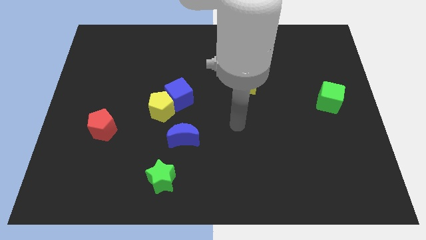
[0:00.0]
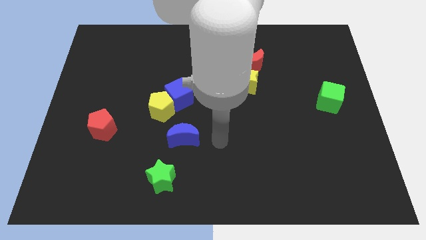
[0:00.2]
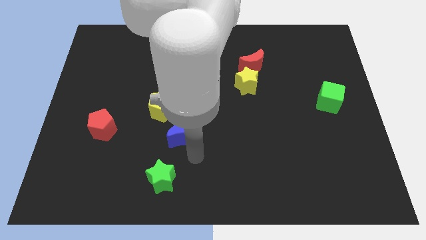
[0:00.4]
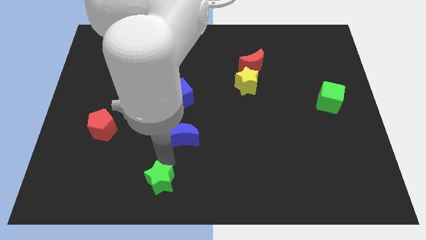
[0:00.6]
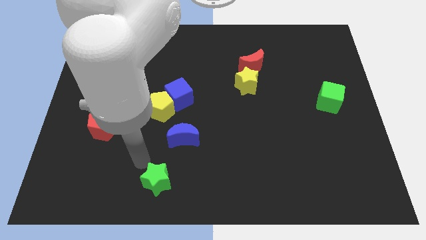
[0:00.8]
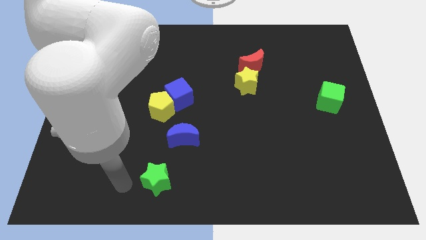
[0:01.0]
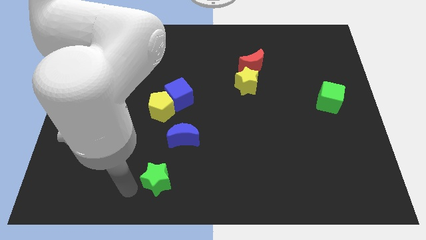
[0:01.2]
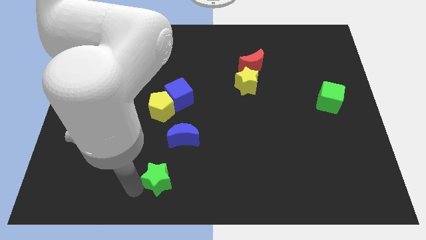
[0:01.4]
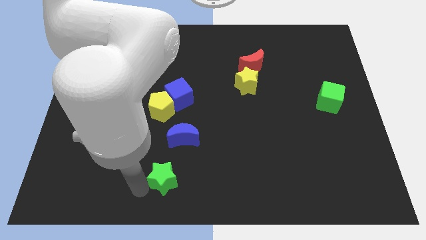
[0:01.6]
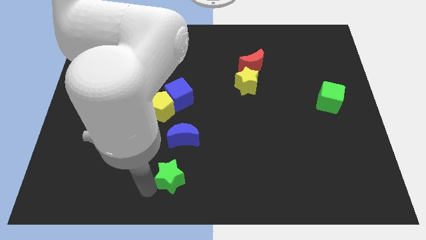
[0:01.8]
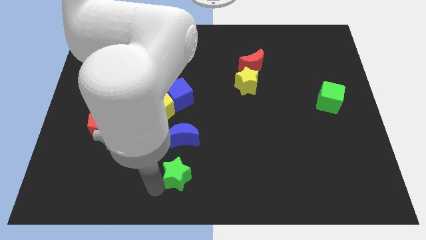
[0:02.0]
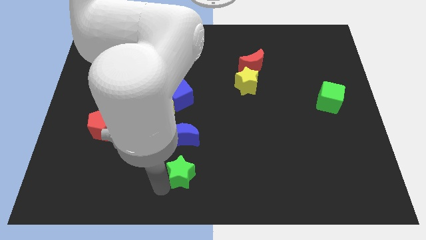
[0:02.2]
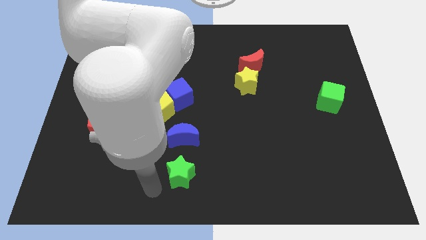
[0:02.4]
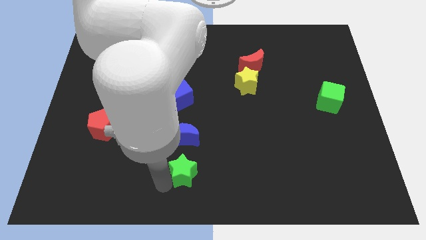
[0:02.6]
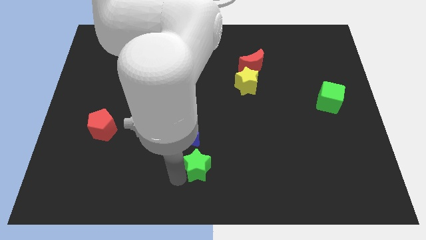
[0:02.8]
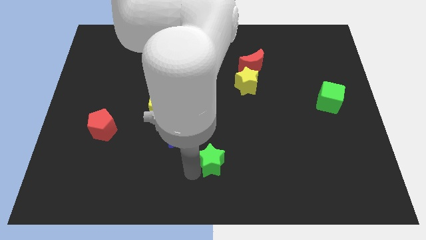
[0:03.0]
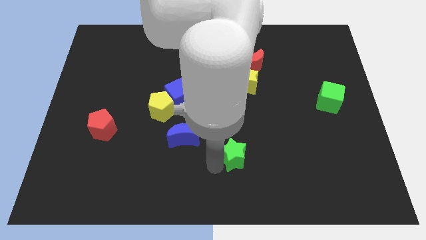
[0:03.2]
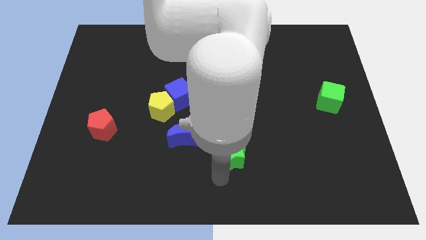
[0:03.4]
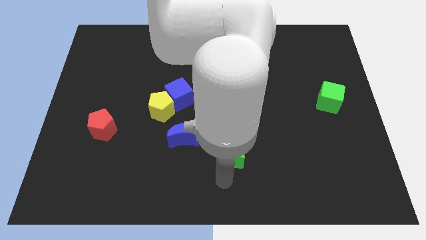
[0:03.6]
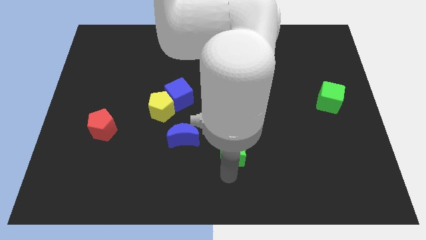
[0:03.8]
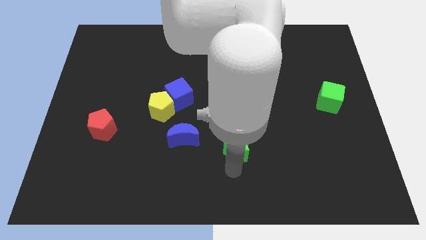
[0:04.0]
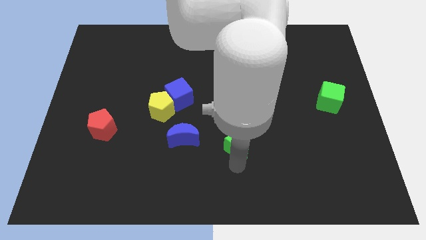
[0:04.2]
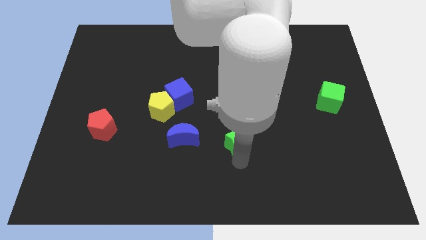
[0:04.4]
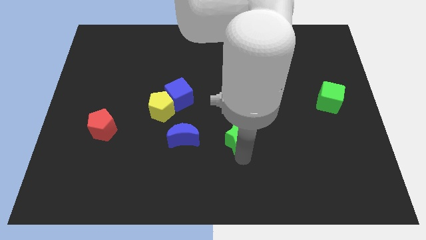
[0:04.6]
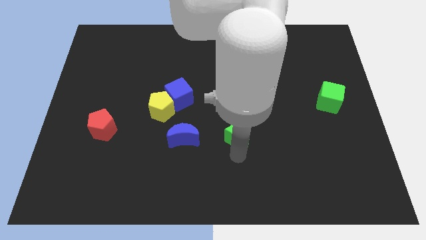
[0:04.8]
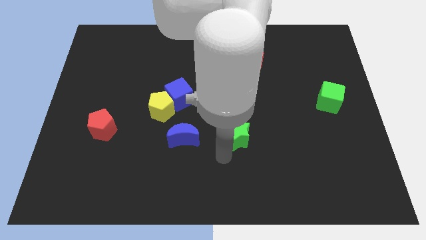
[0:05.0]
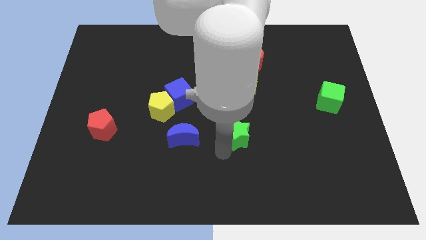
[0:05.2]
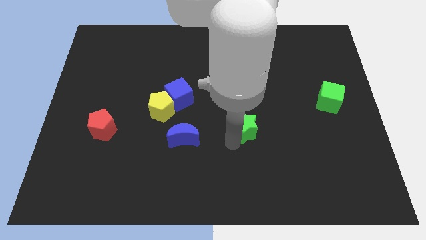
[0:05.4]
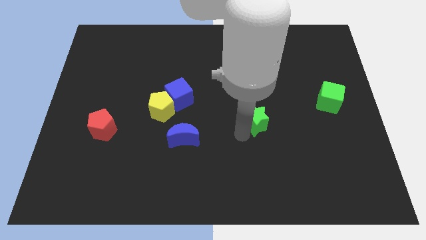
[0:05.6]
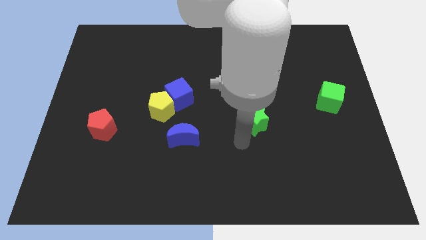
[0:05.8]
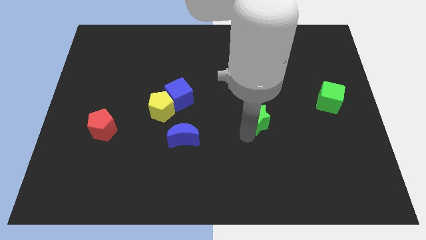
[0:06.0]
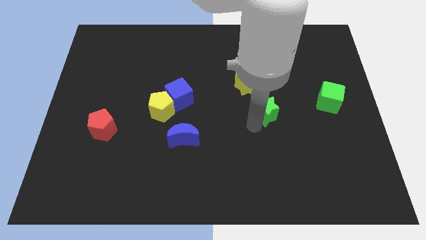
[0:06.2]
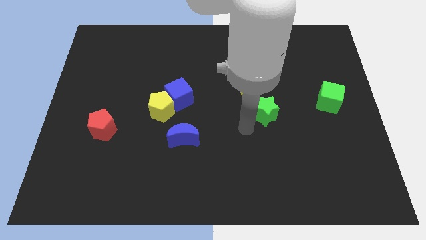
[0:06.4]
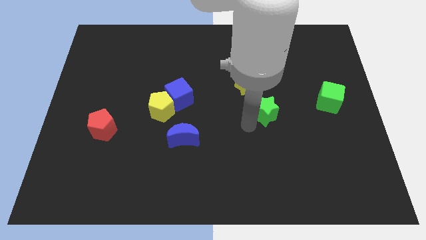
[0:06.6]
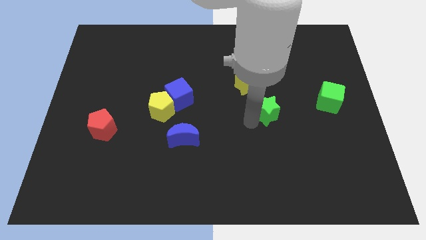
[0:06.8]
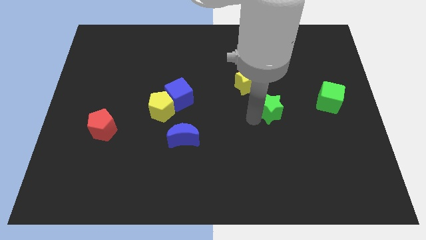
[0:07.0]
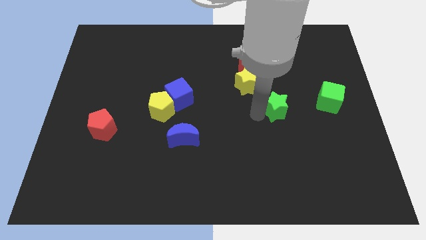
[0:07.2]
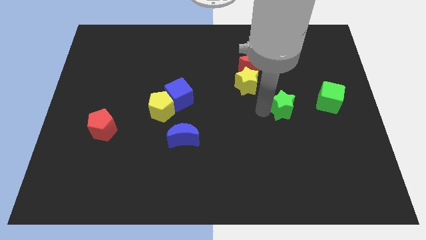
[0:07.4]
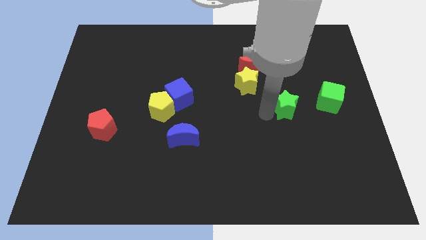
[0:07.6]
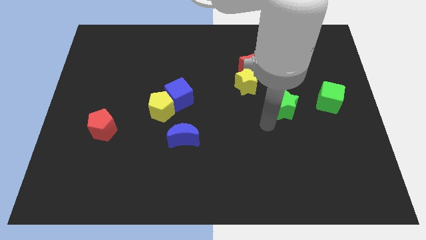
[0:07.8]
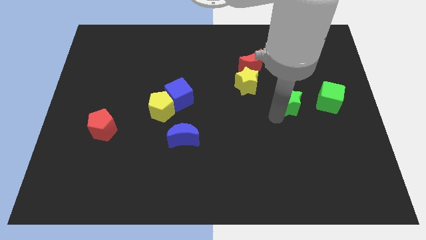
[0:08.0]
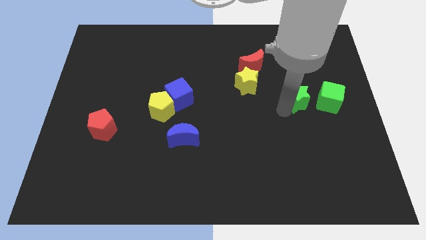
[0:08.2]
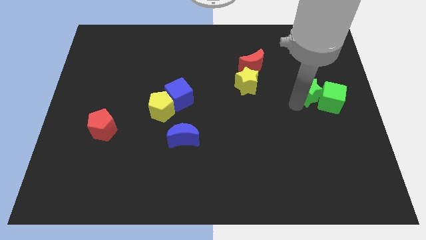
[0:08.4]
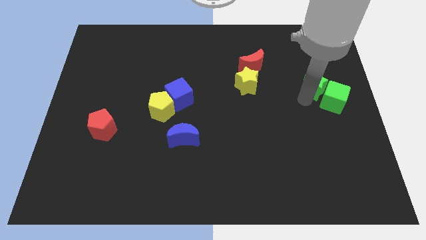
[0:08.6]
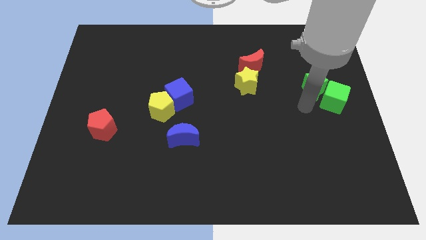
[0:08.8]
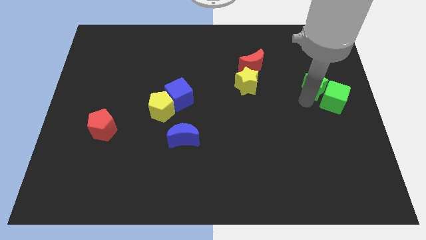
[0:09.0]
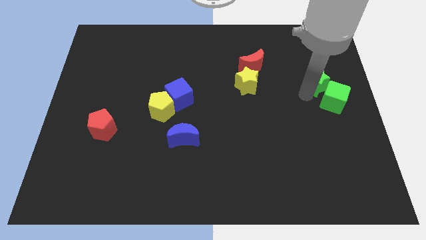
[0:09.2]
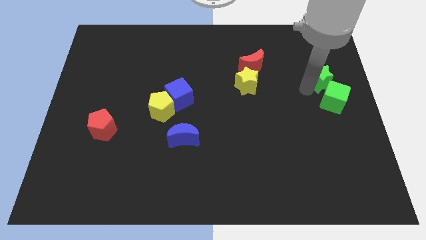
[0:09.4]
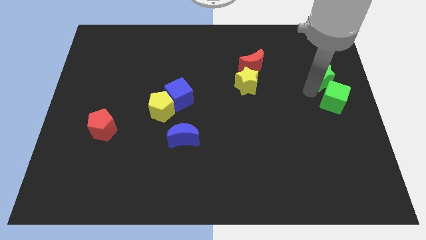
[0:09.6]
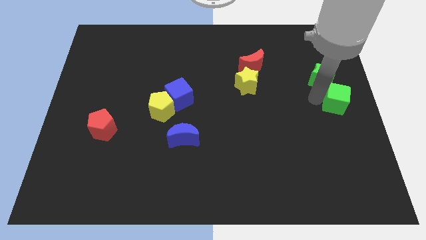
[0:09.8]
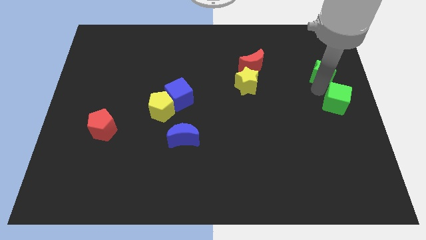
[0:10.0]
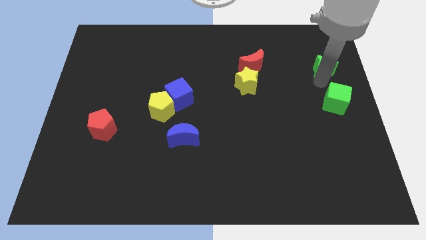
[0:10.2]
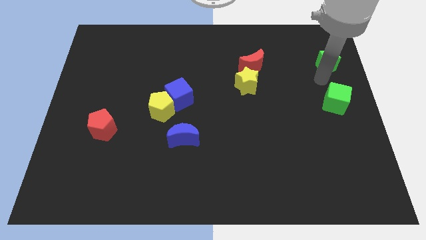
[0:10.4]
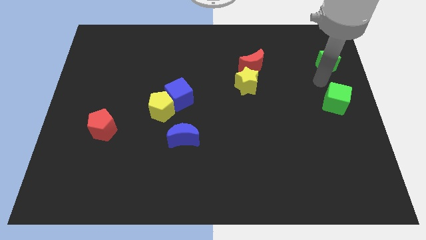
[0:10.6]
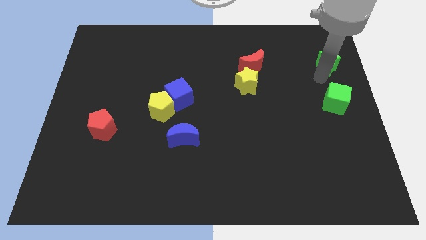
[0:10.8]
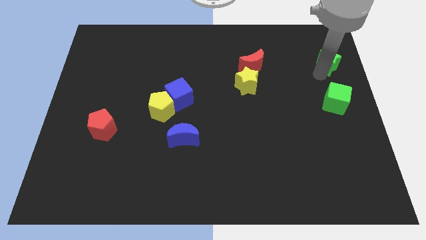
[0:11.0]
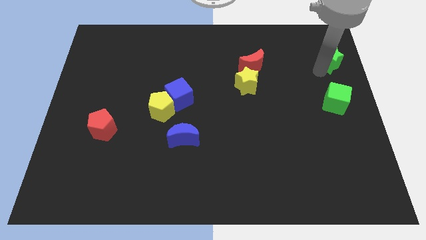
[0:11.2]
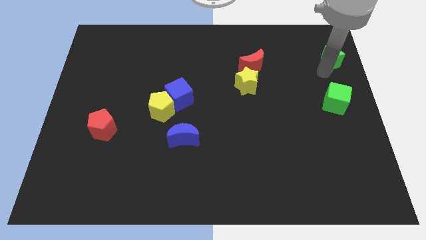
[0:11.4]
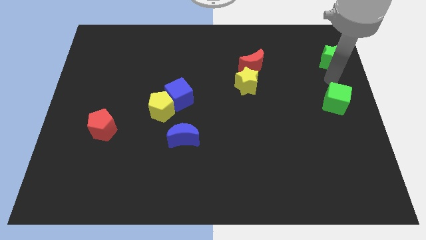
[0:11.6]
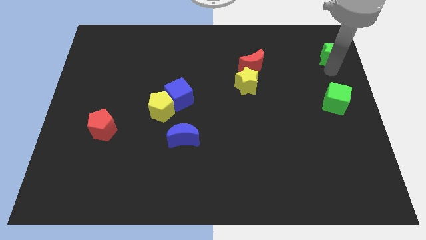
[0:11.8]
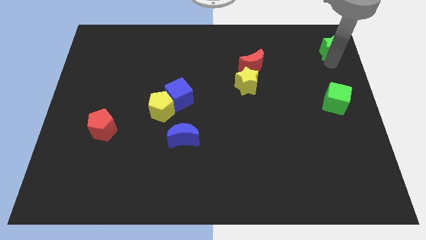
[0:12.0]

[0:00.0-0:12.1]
slide the green star to the top right
